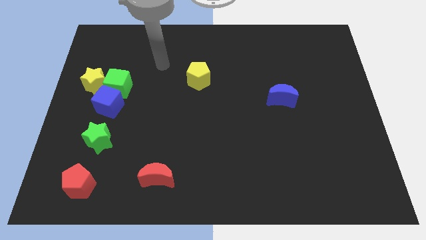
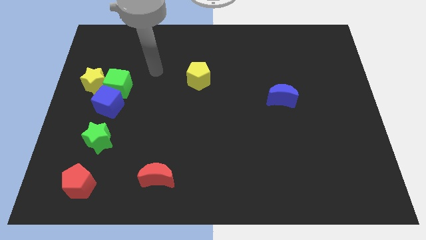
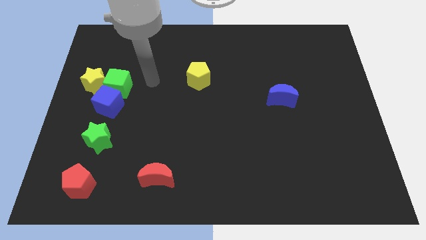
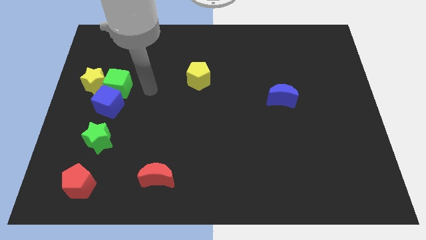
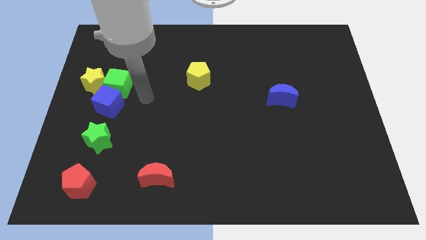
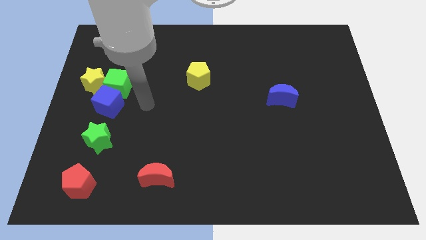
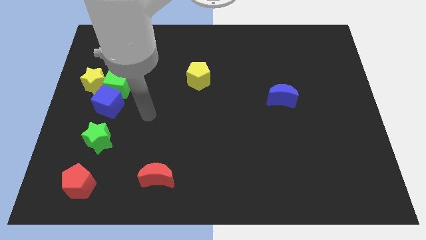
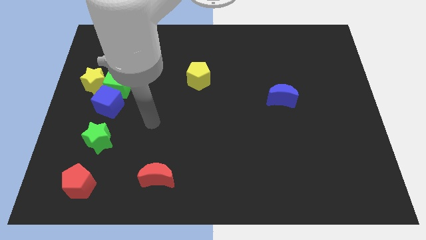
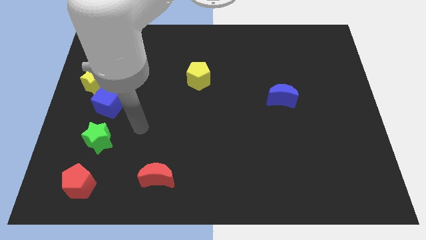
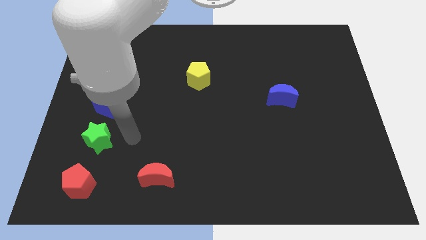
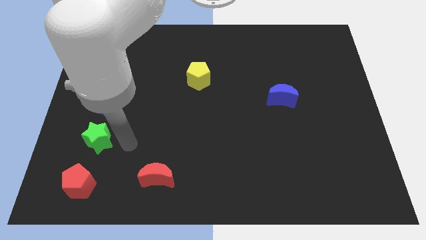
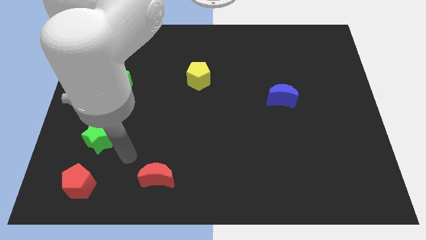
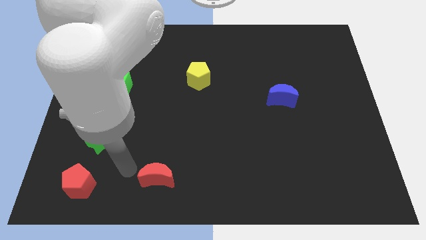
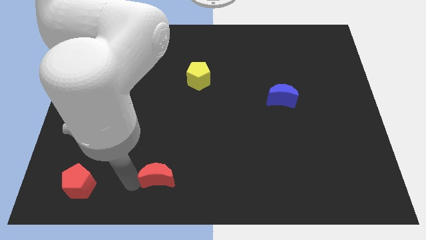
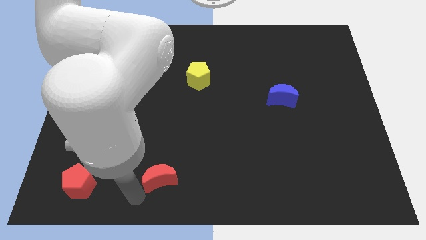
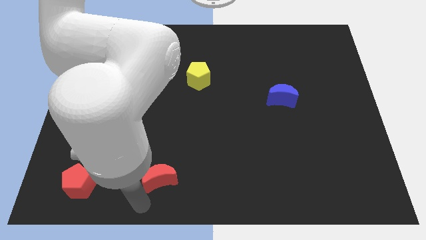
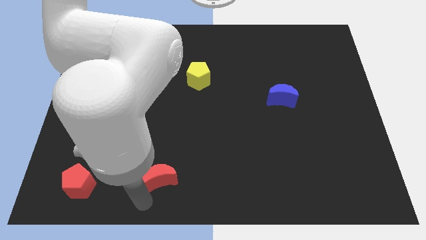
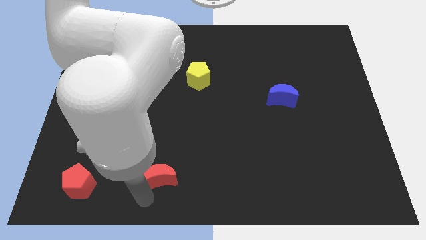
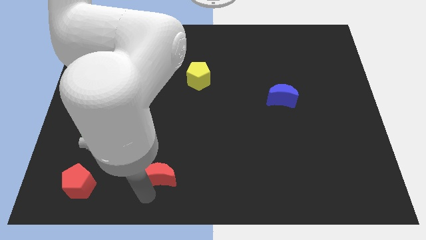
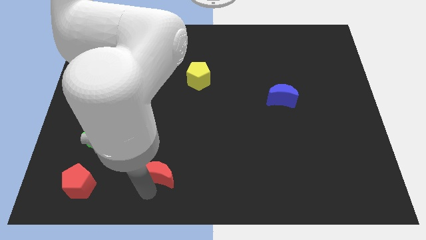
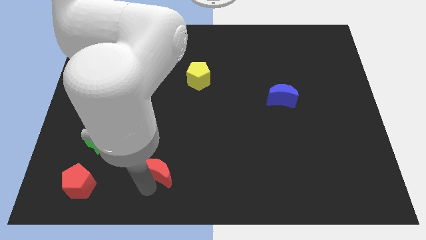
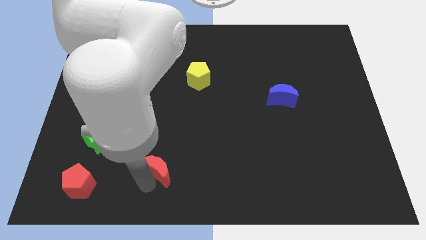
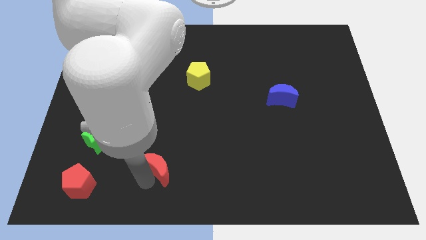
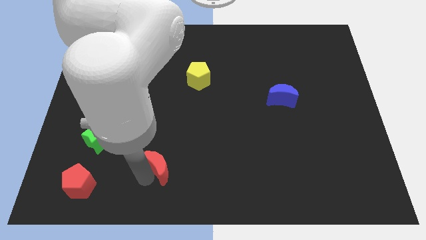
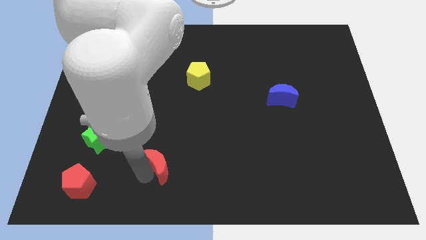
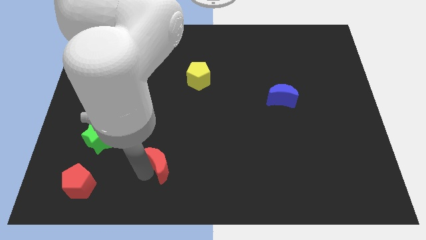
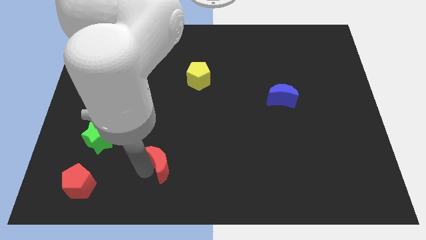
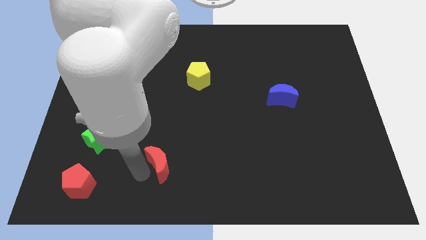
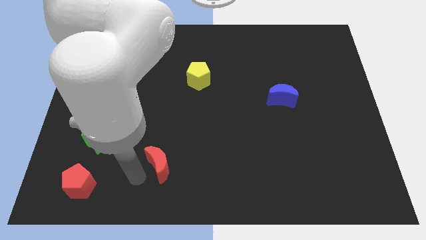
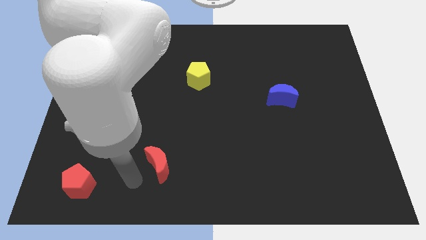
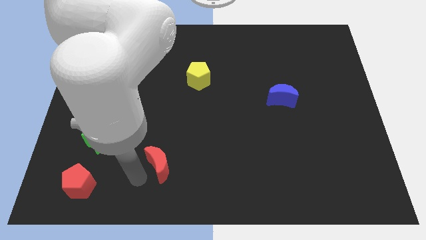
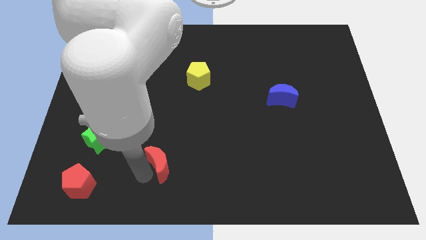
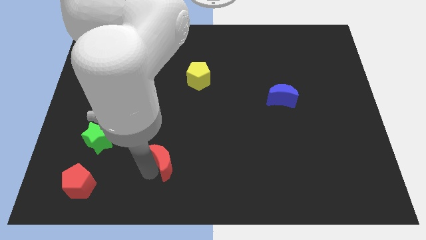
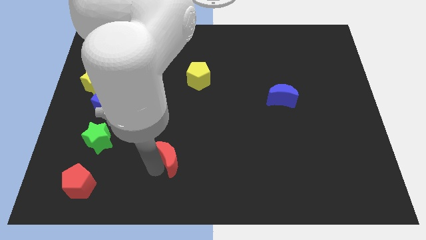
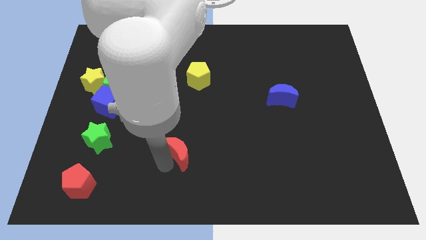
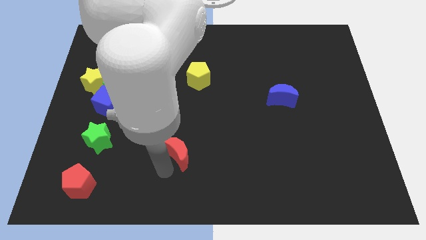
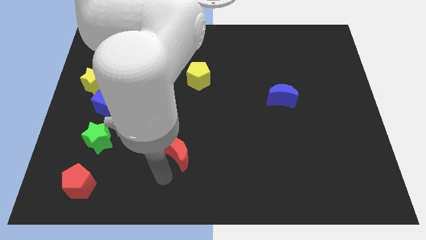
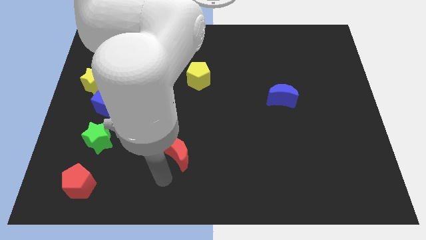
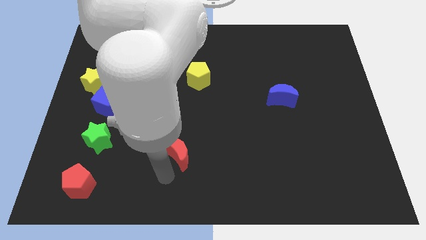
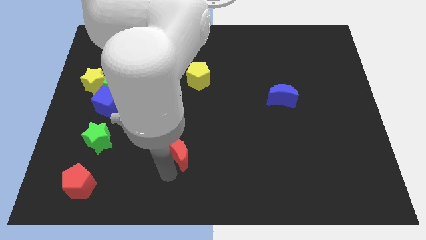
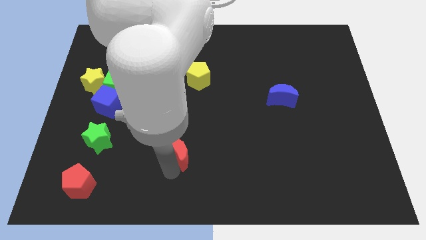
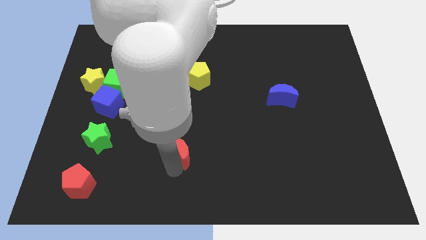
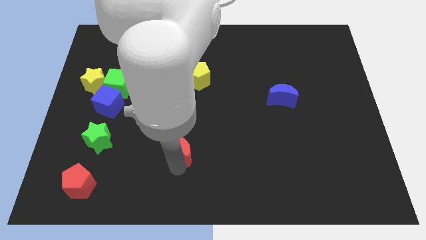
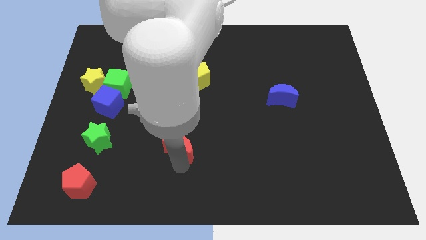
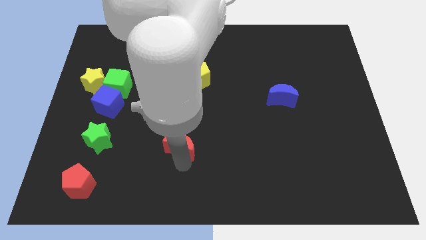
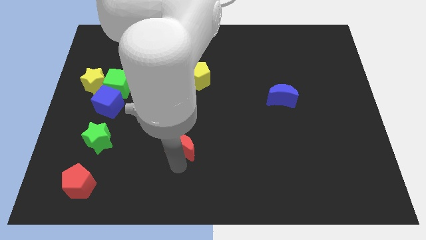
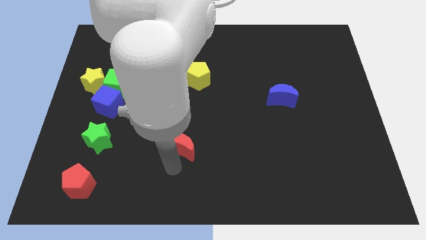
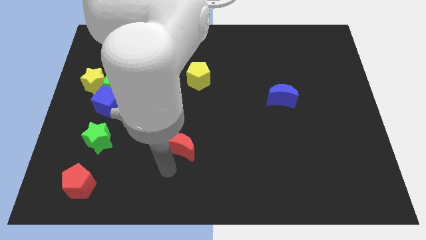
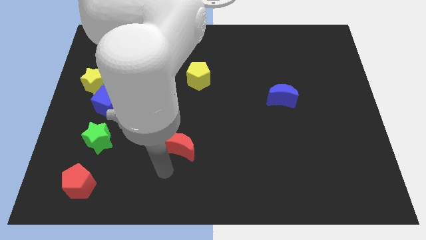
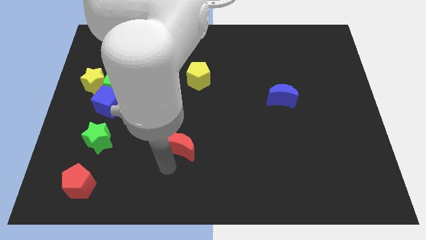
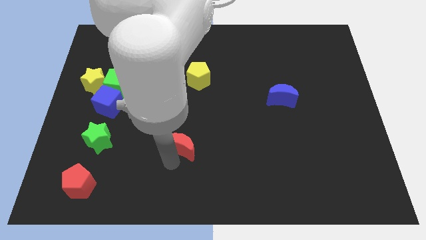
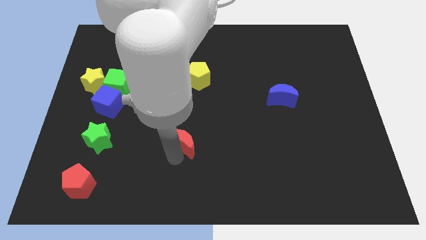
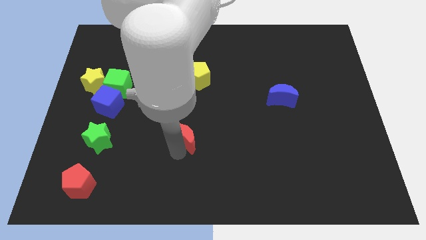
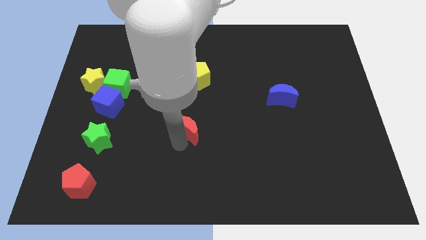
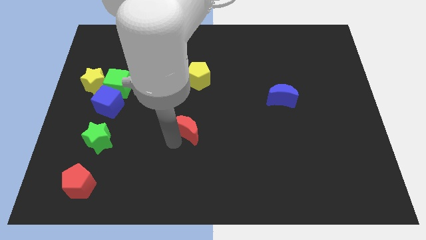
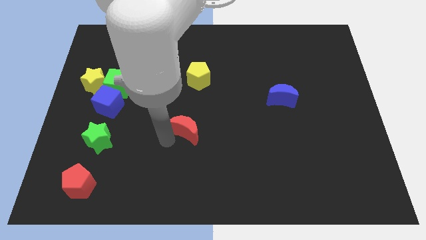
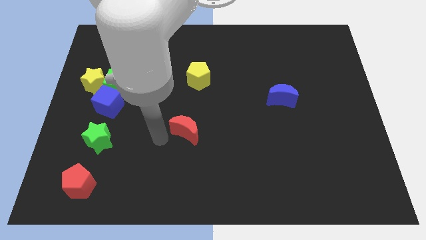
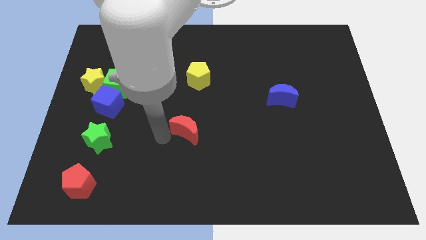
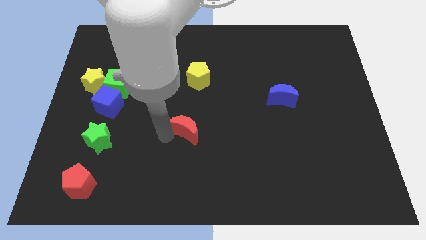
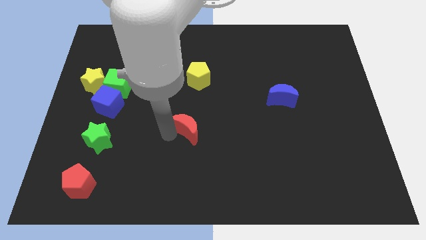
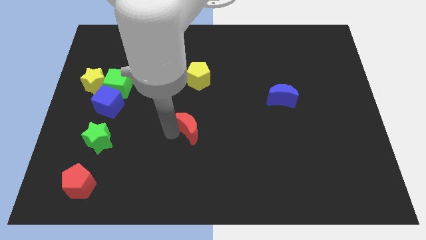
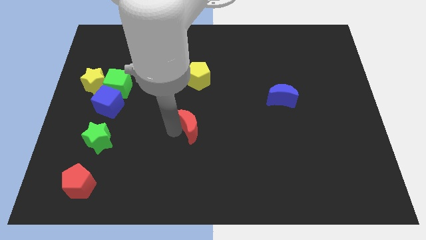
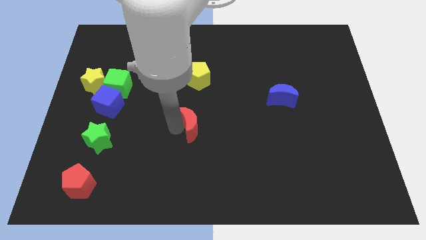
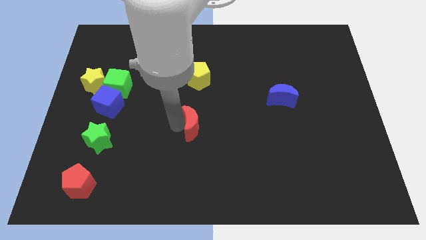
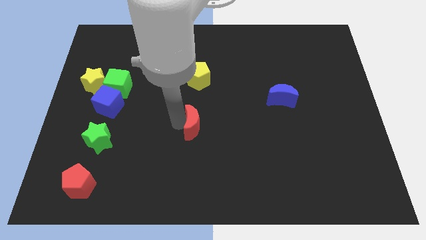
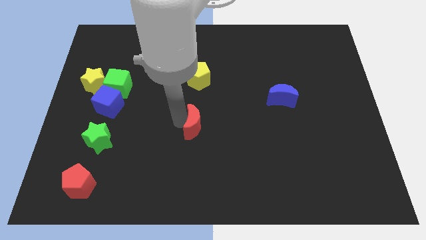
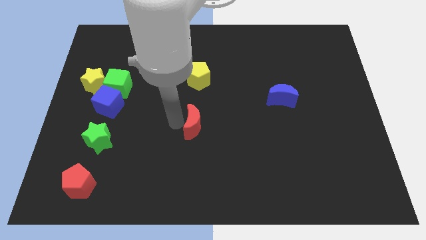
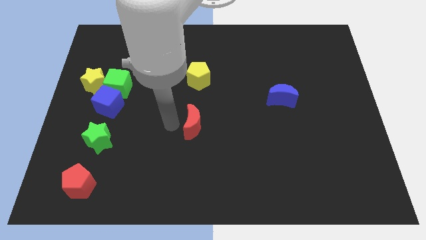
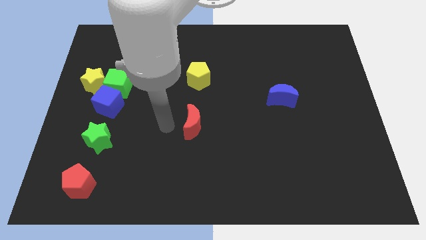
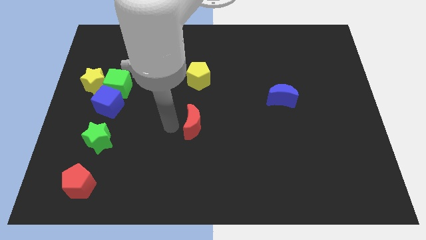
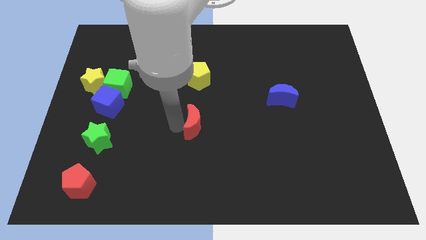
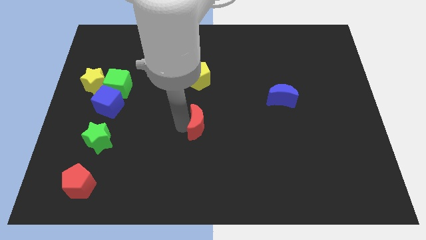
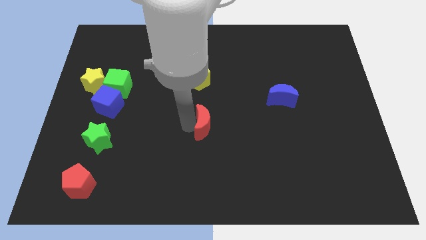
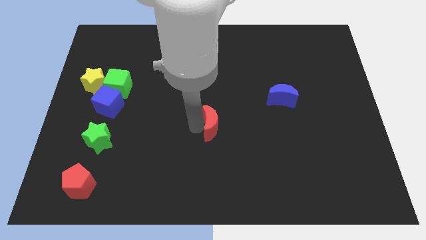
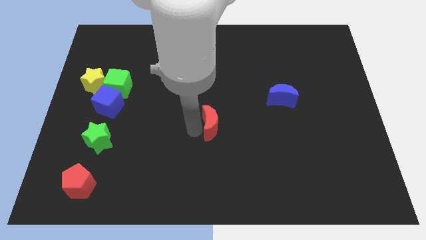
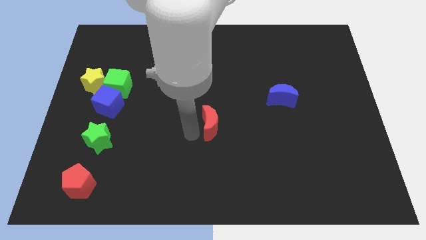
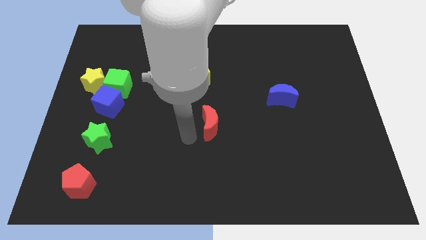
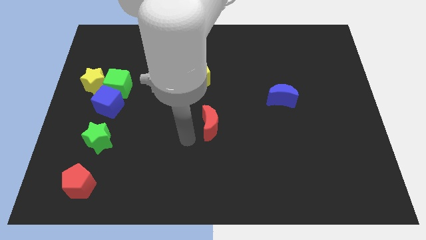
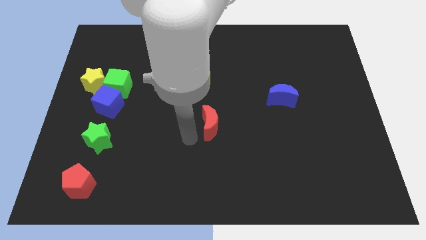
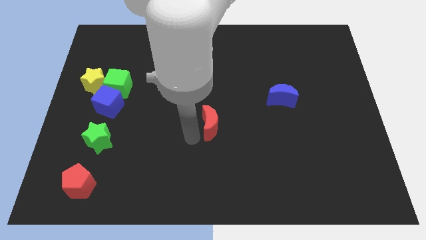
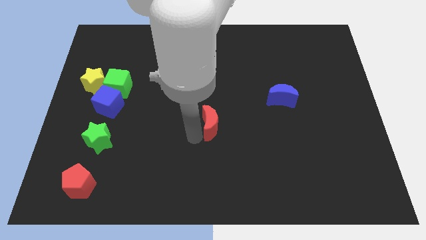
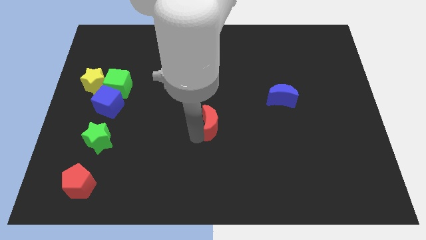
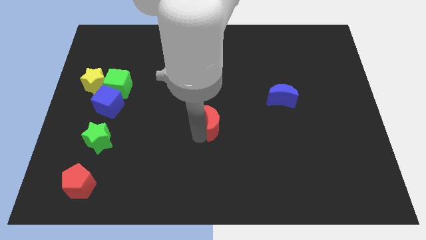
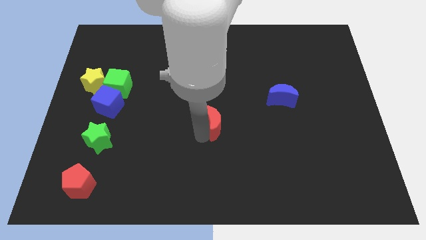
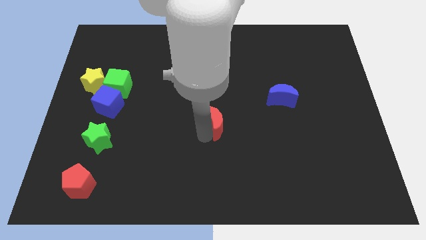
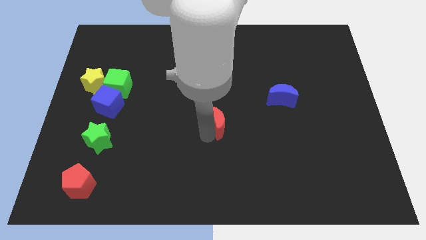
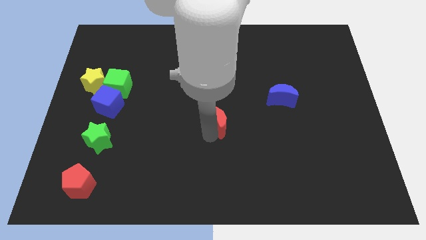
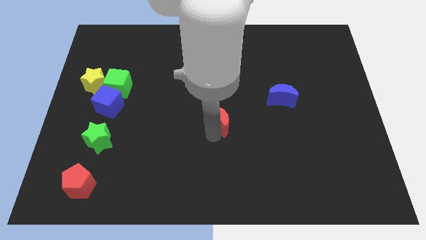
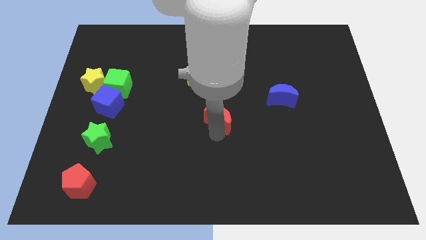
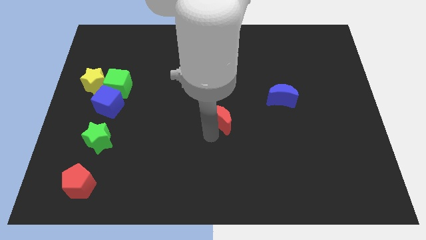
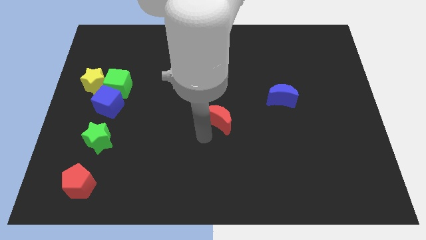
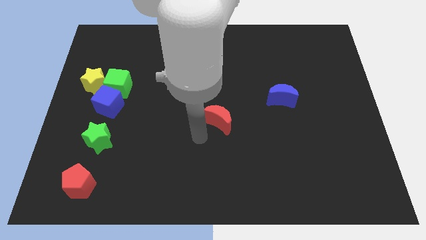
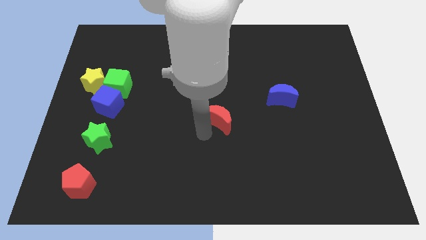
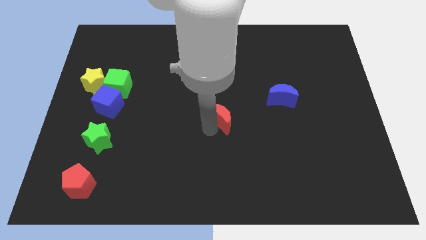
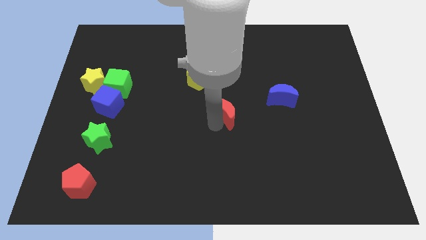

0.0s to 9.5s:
push the red moon up and then right
